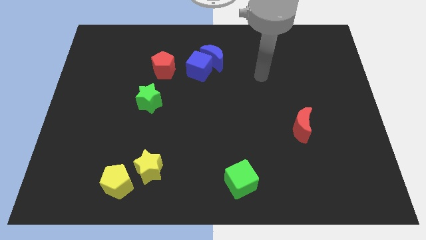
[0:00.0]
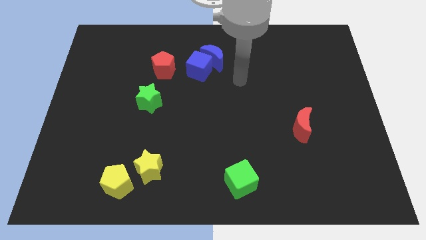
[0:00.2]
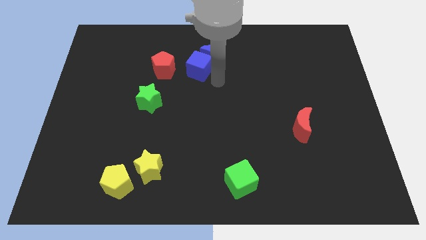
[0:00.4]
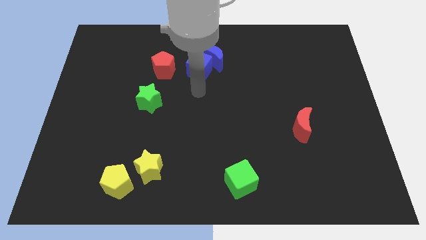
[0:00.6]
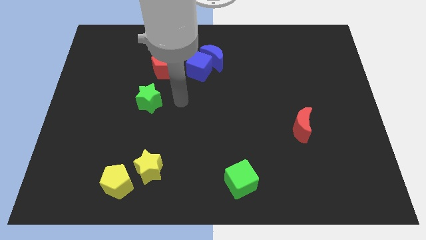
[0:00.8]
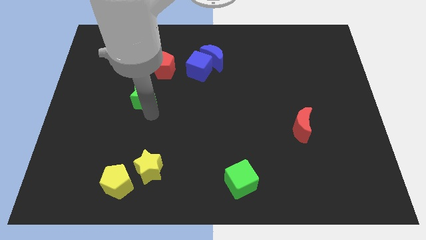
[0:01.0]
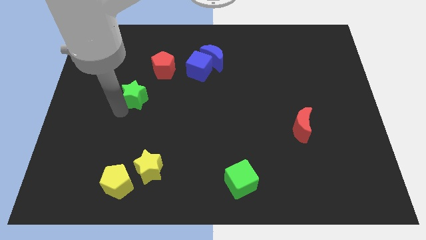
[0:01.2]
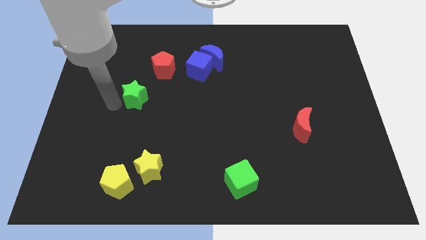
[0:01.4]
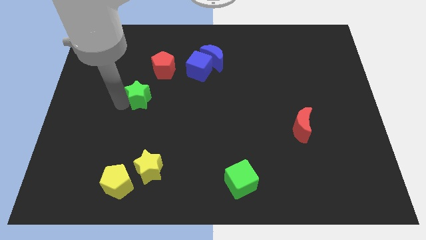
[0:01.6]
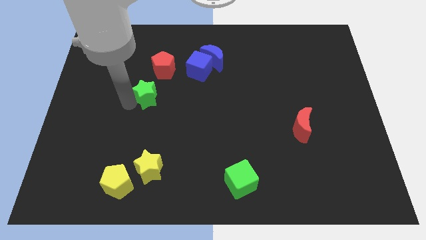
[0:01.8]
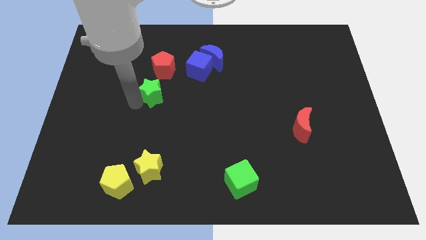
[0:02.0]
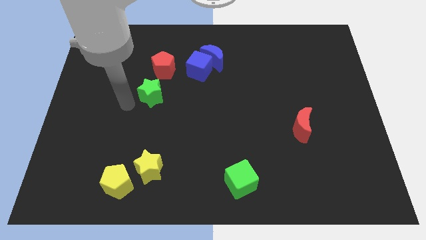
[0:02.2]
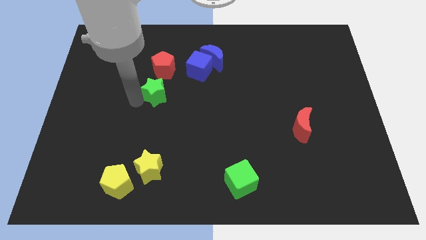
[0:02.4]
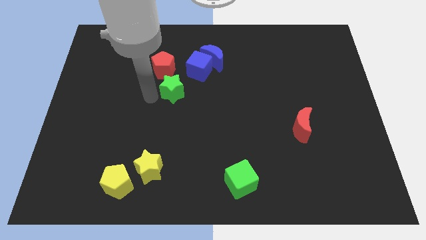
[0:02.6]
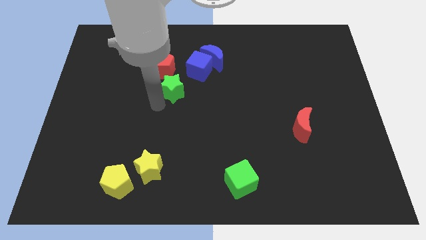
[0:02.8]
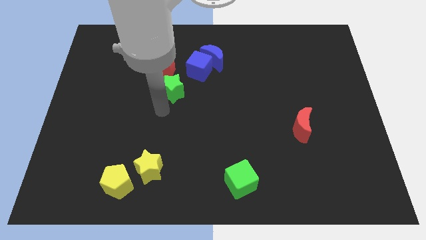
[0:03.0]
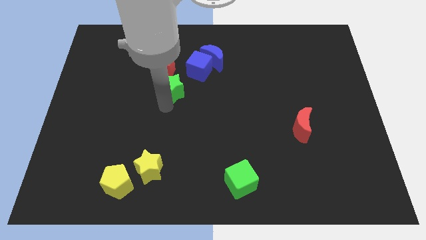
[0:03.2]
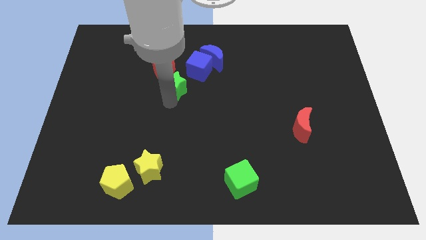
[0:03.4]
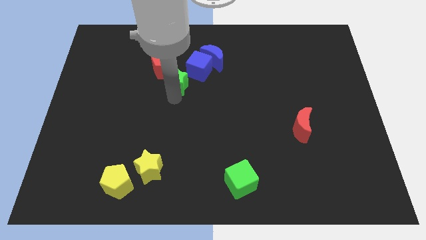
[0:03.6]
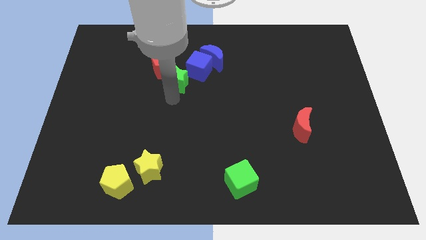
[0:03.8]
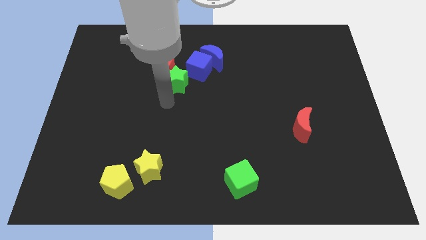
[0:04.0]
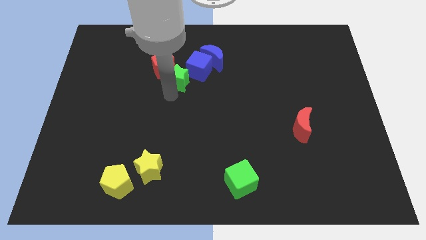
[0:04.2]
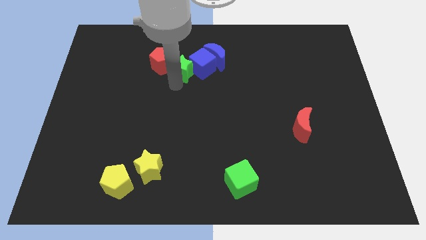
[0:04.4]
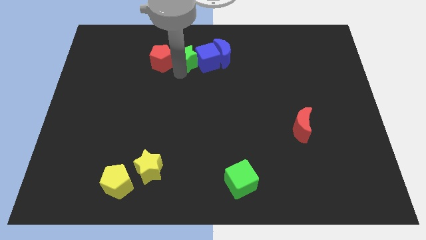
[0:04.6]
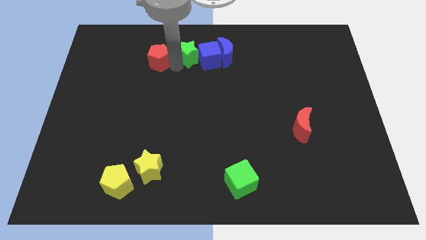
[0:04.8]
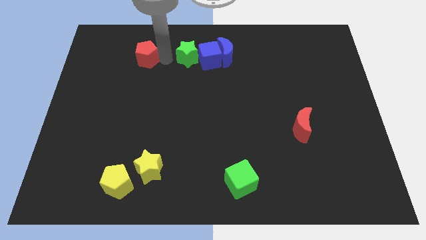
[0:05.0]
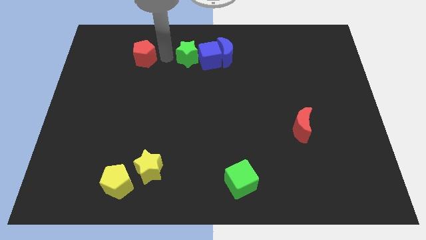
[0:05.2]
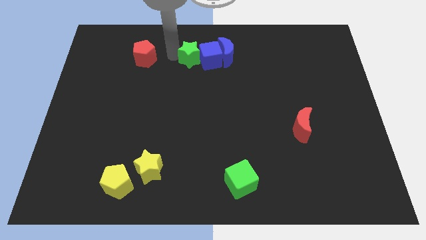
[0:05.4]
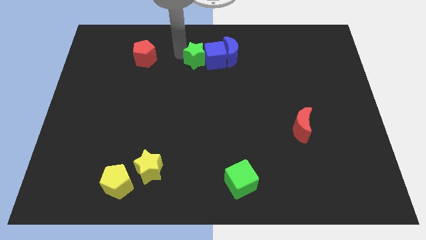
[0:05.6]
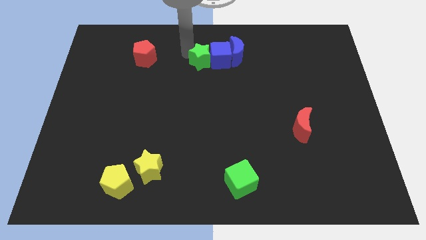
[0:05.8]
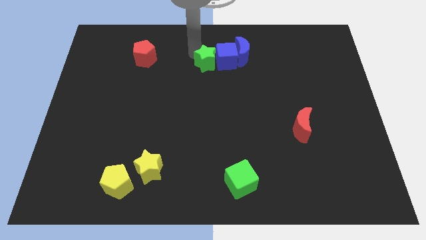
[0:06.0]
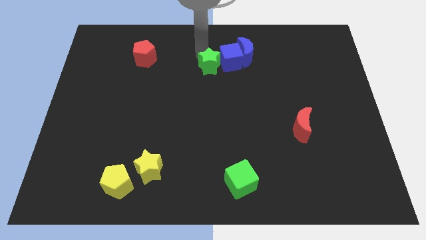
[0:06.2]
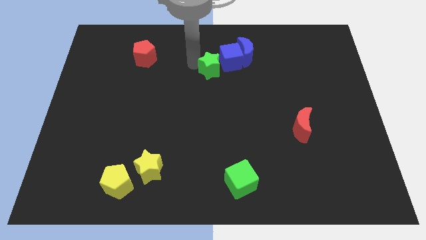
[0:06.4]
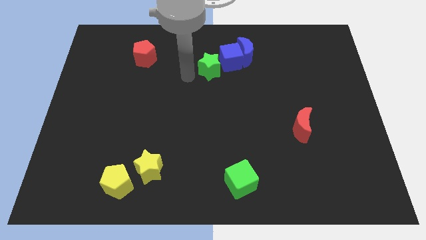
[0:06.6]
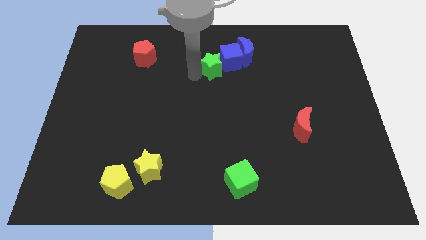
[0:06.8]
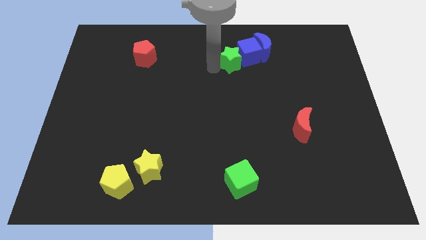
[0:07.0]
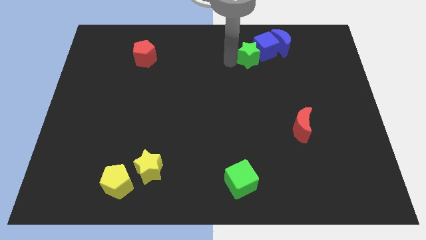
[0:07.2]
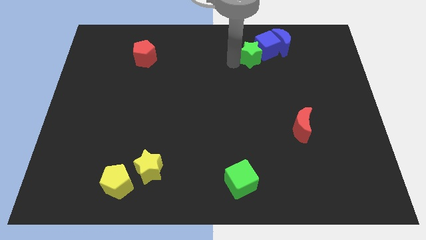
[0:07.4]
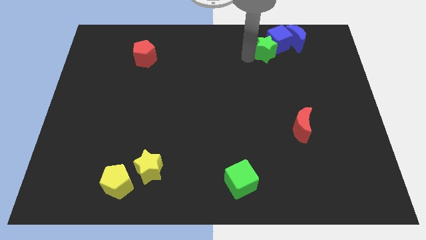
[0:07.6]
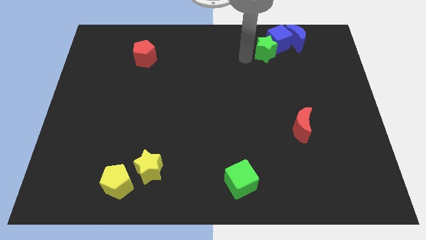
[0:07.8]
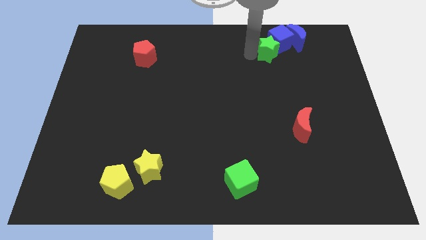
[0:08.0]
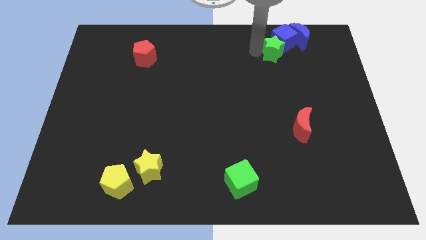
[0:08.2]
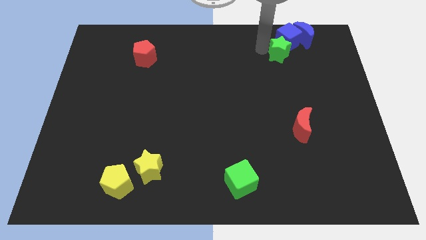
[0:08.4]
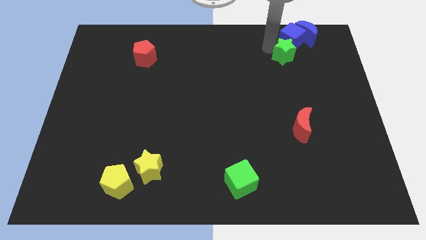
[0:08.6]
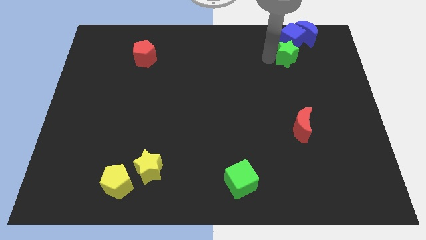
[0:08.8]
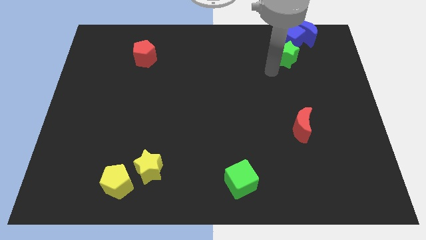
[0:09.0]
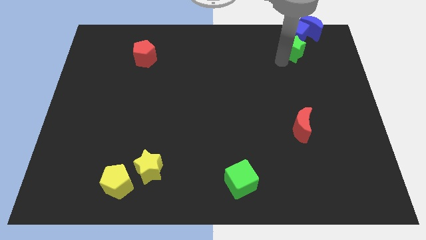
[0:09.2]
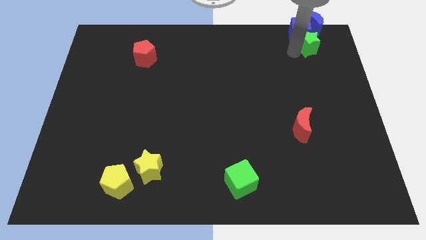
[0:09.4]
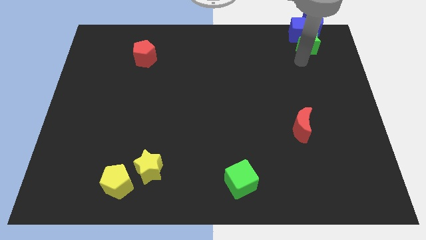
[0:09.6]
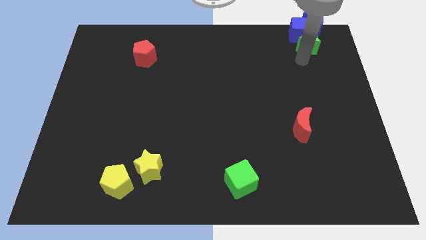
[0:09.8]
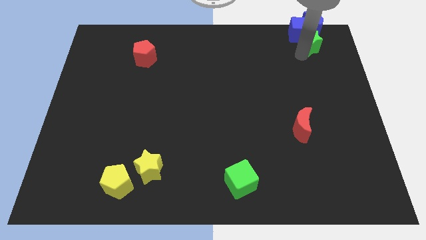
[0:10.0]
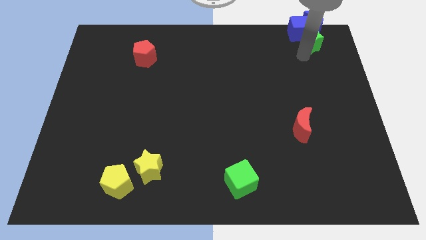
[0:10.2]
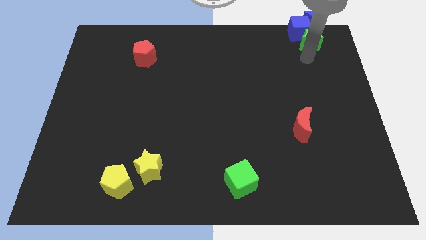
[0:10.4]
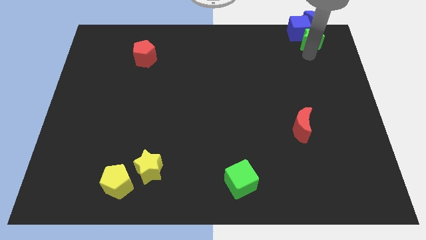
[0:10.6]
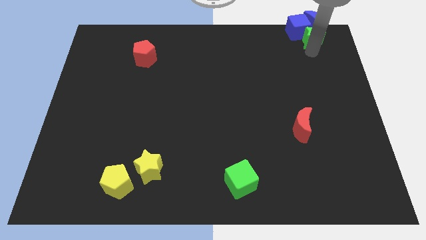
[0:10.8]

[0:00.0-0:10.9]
push the green star to the blue moon

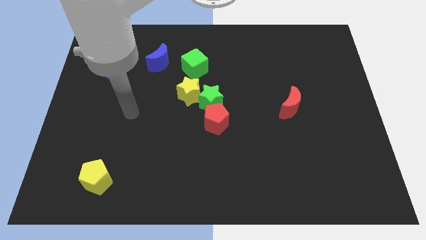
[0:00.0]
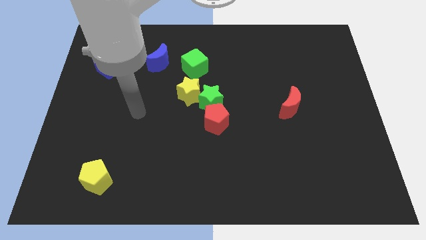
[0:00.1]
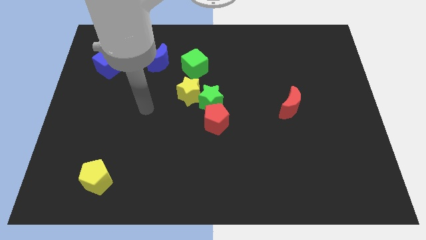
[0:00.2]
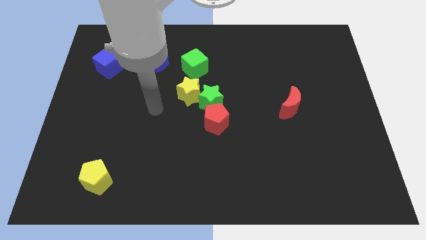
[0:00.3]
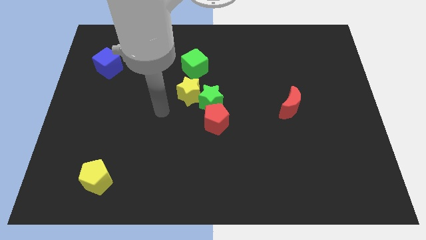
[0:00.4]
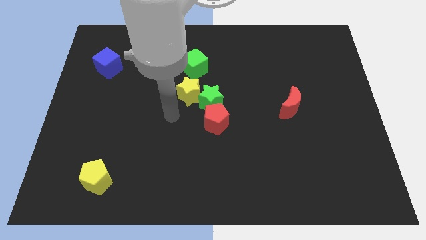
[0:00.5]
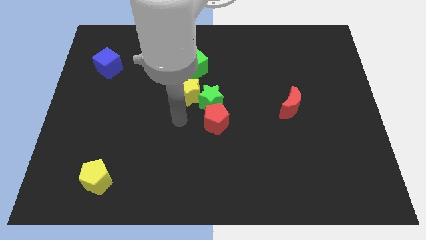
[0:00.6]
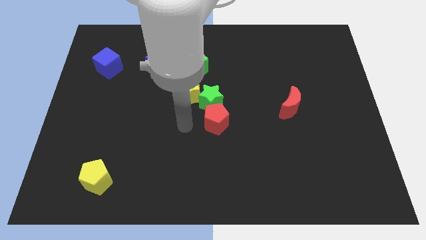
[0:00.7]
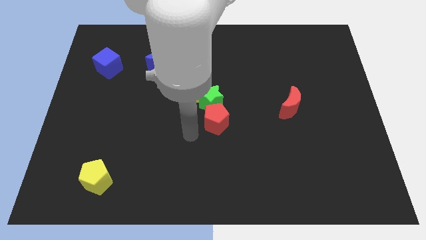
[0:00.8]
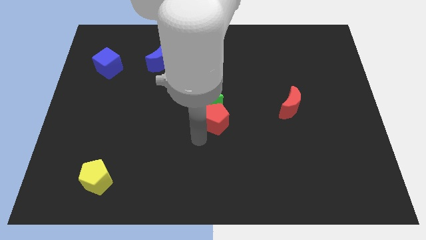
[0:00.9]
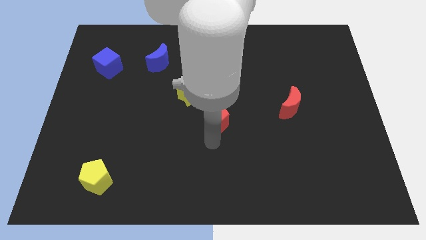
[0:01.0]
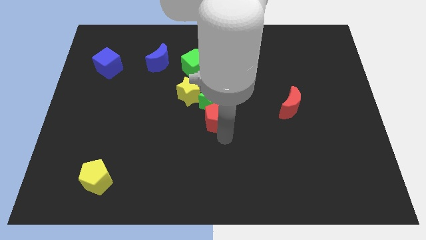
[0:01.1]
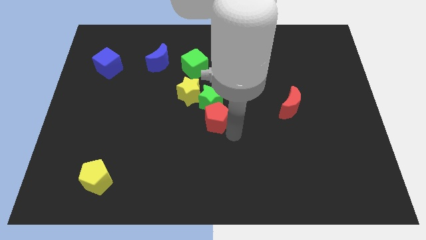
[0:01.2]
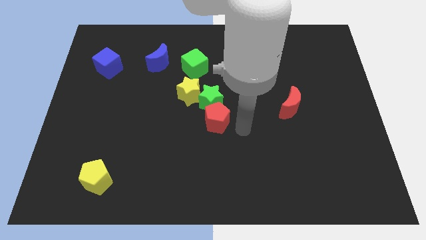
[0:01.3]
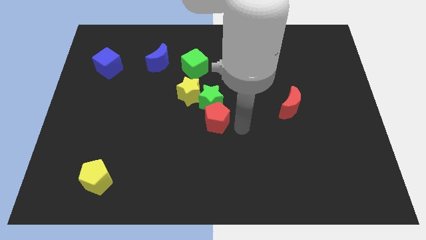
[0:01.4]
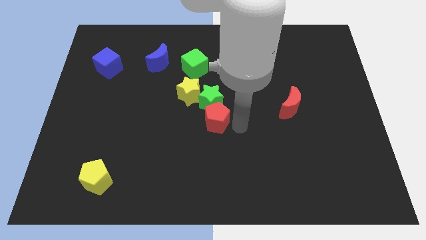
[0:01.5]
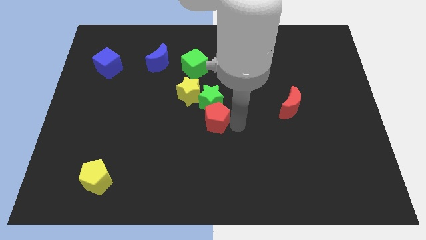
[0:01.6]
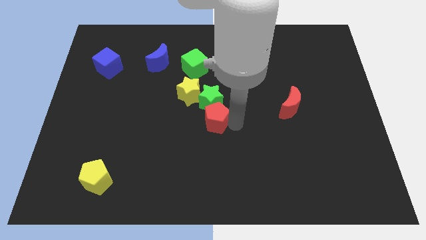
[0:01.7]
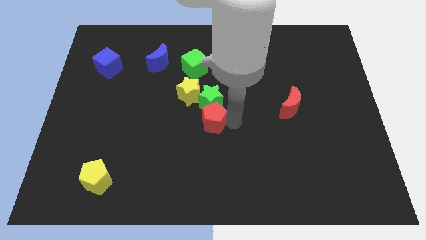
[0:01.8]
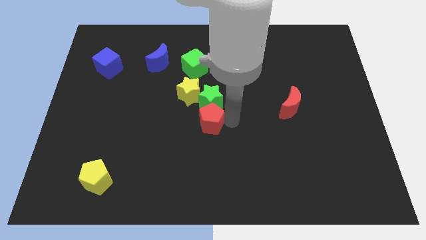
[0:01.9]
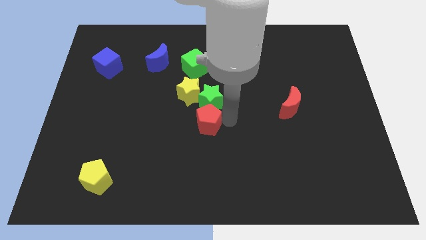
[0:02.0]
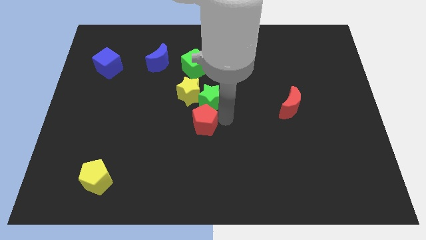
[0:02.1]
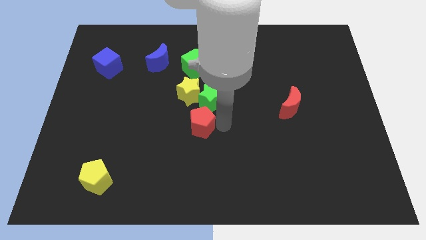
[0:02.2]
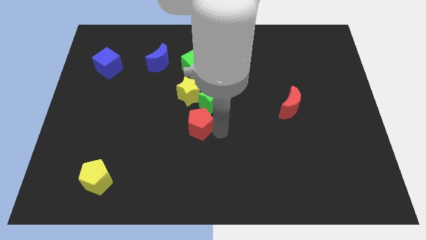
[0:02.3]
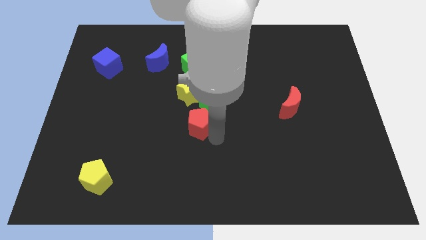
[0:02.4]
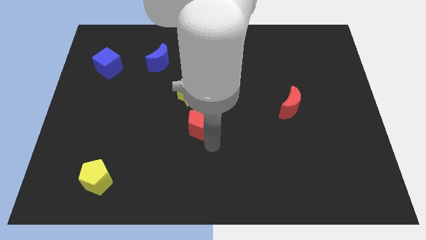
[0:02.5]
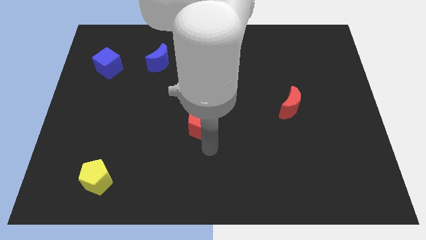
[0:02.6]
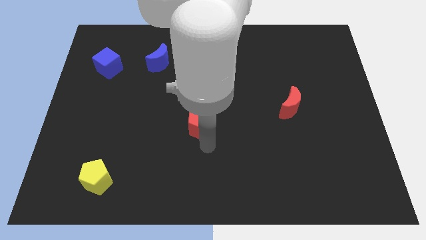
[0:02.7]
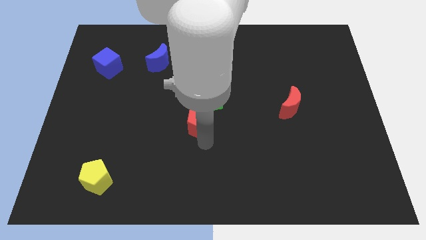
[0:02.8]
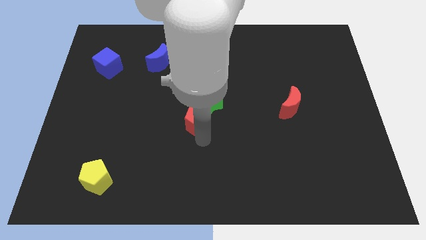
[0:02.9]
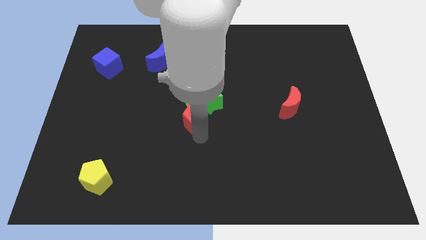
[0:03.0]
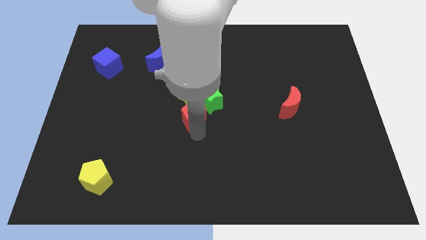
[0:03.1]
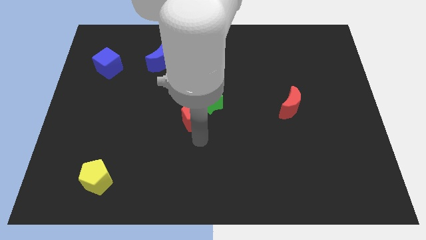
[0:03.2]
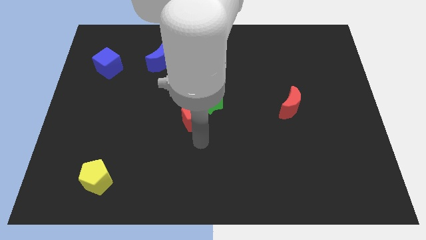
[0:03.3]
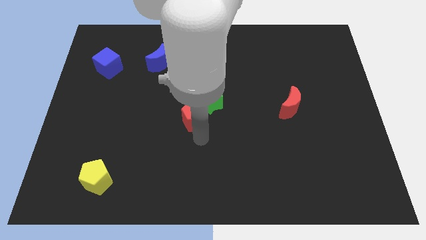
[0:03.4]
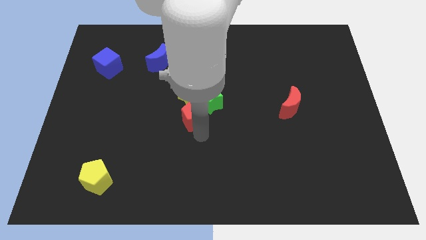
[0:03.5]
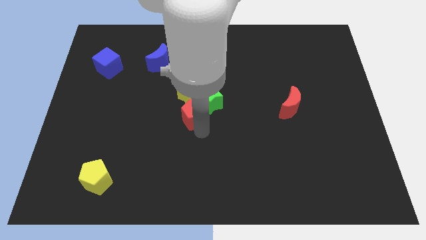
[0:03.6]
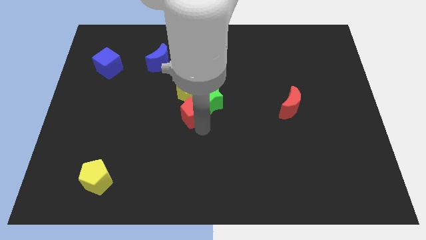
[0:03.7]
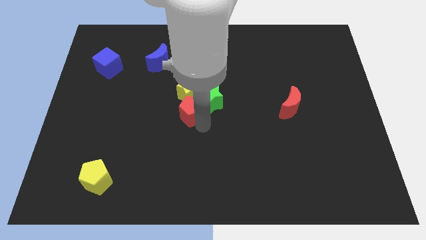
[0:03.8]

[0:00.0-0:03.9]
slide the red pentagon to the yellow star
